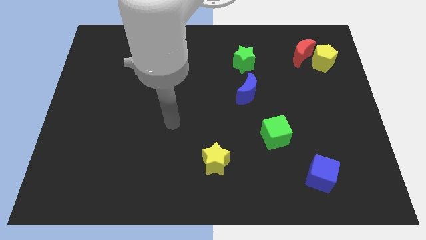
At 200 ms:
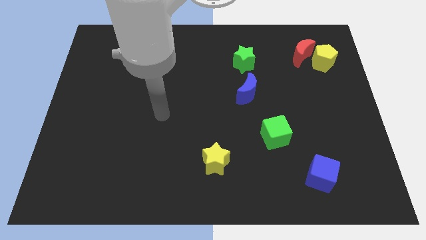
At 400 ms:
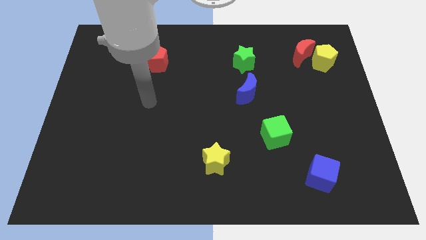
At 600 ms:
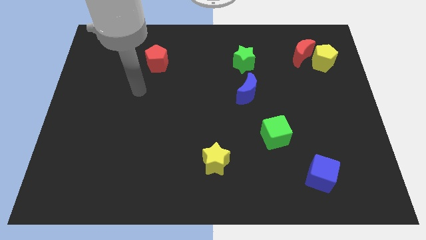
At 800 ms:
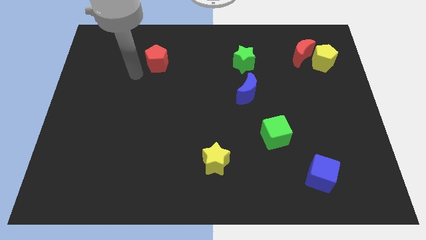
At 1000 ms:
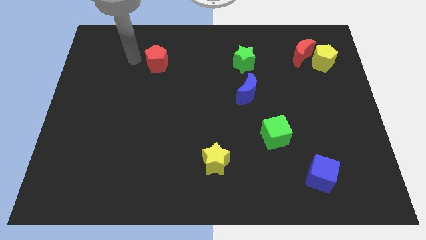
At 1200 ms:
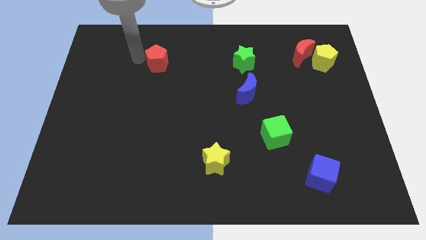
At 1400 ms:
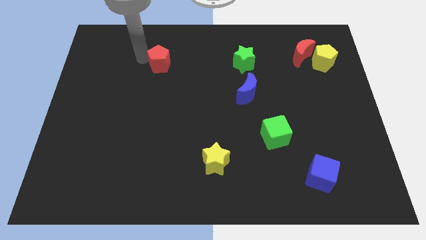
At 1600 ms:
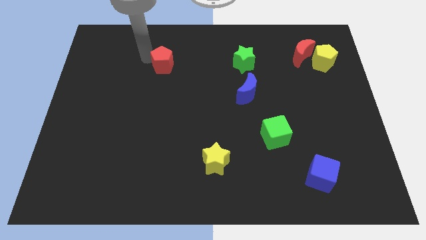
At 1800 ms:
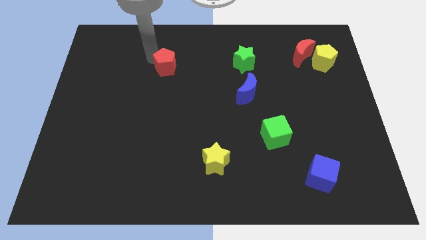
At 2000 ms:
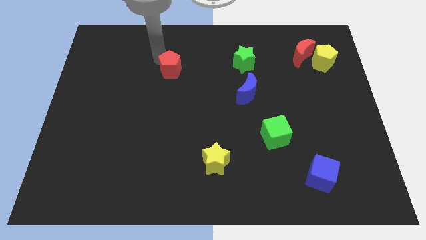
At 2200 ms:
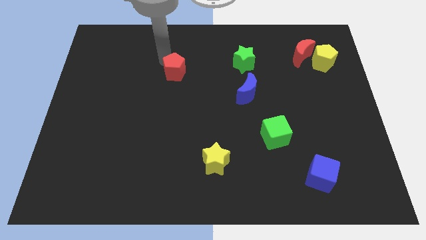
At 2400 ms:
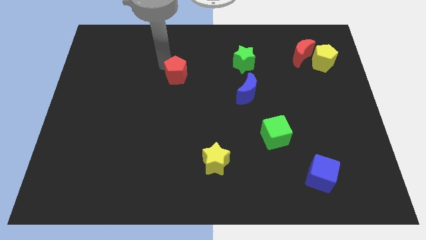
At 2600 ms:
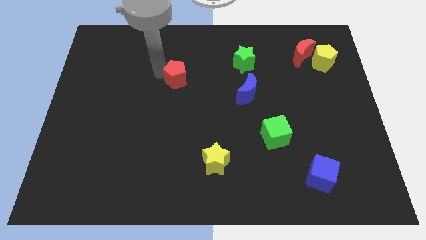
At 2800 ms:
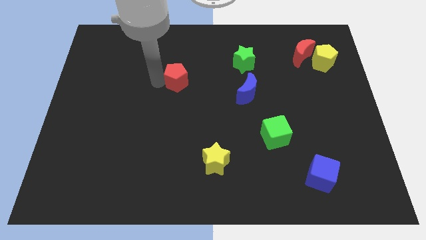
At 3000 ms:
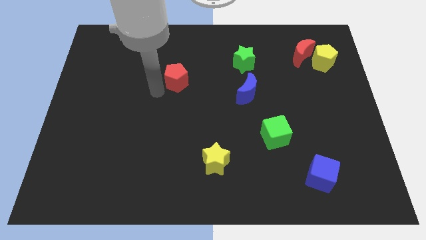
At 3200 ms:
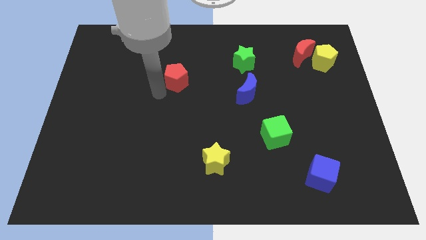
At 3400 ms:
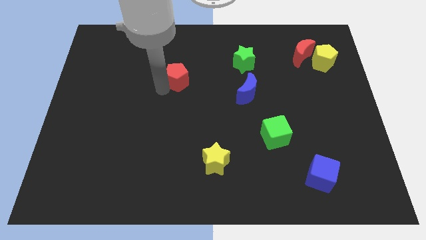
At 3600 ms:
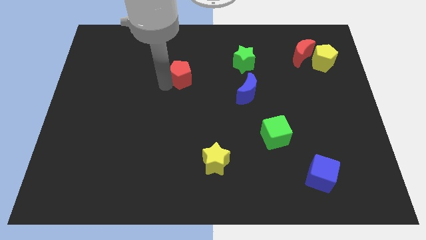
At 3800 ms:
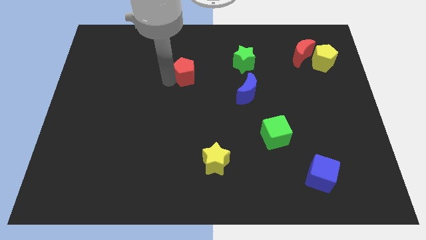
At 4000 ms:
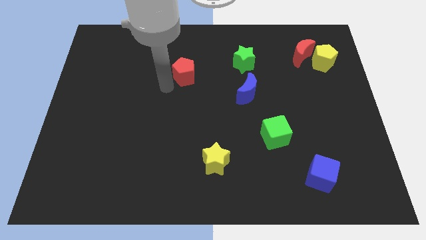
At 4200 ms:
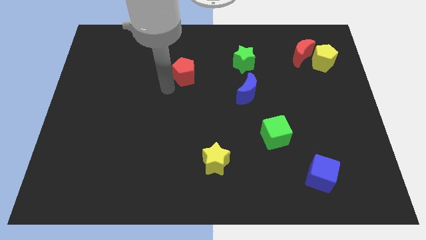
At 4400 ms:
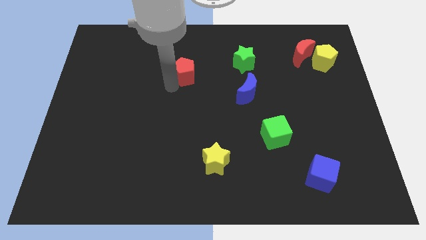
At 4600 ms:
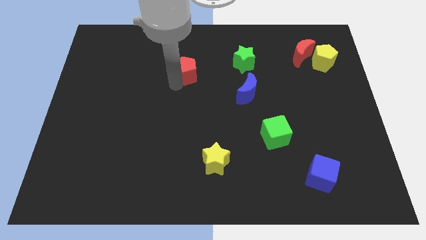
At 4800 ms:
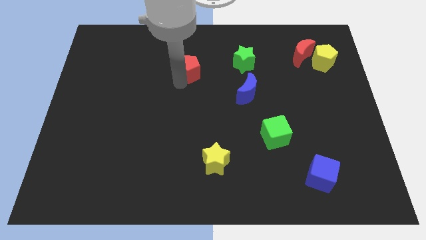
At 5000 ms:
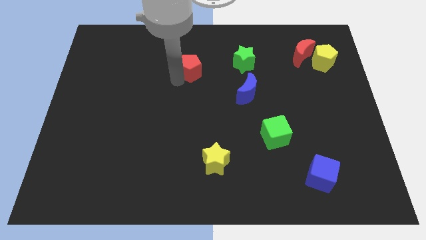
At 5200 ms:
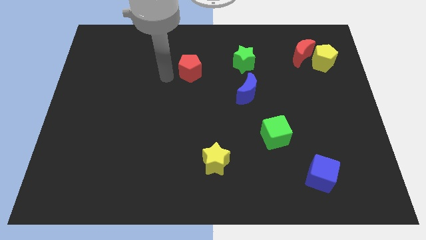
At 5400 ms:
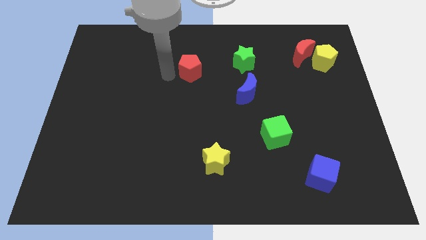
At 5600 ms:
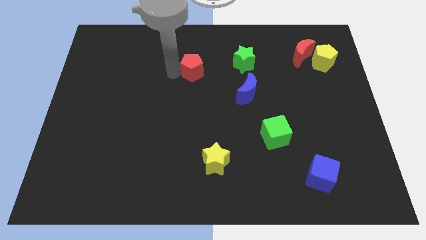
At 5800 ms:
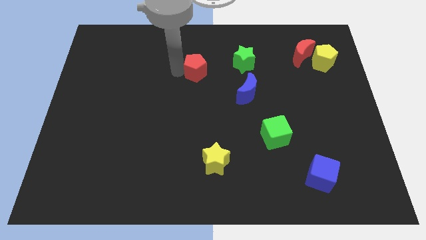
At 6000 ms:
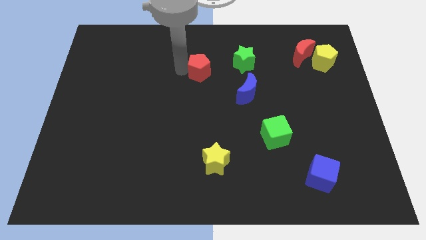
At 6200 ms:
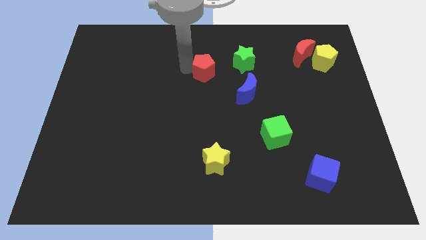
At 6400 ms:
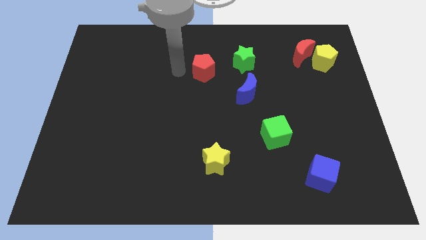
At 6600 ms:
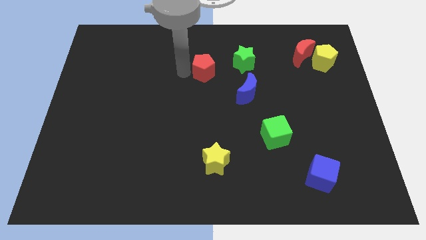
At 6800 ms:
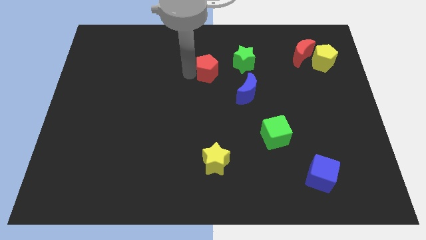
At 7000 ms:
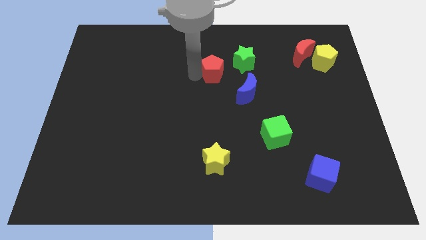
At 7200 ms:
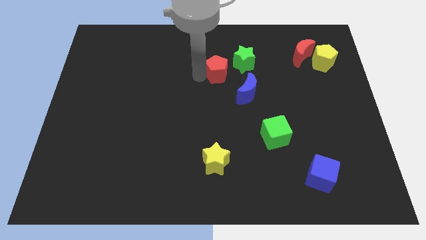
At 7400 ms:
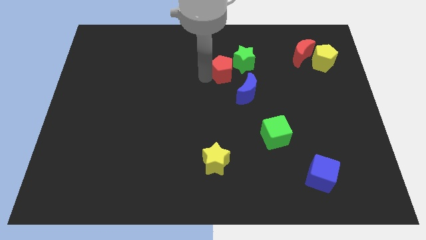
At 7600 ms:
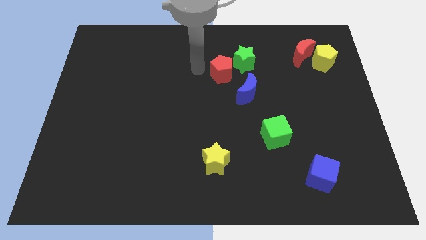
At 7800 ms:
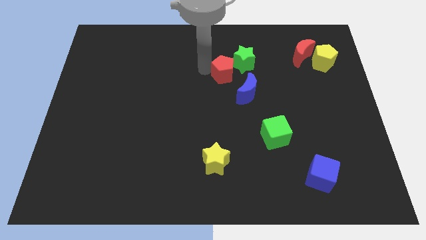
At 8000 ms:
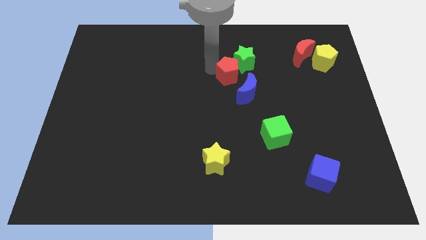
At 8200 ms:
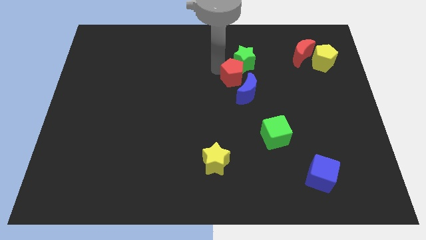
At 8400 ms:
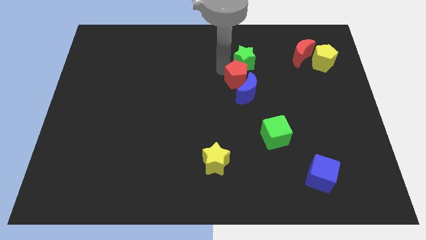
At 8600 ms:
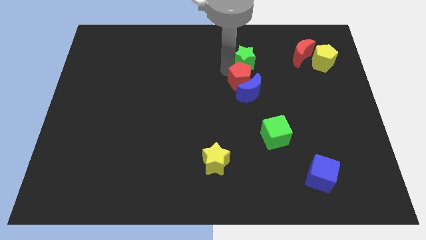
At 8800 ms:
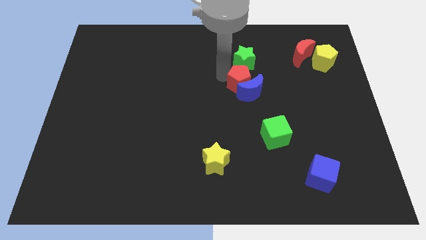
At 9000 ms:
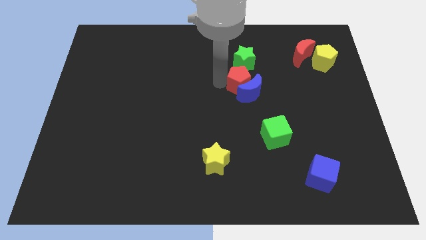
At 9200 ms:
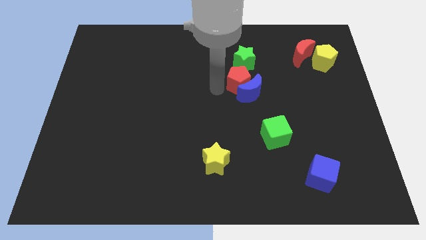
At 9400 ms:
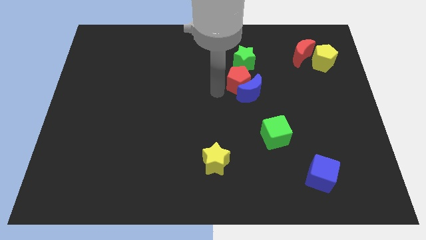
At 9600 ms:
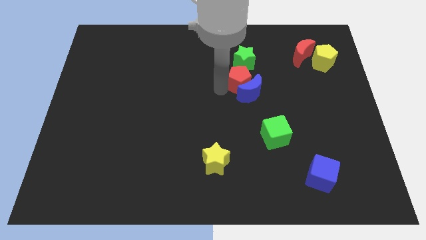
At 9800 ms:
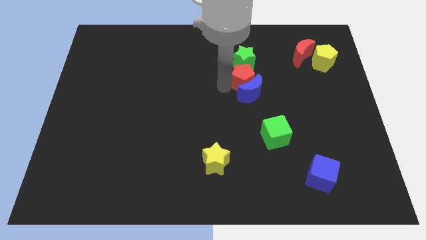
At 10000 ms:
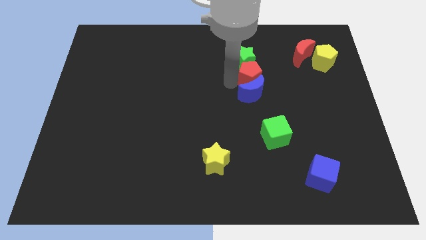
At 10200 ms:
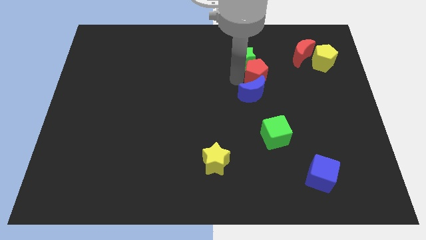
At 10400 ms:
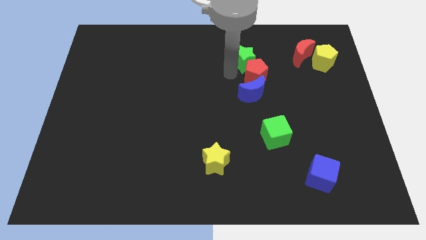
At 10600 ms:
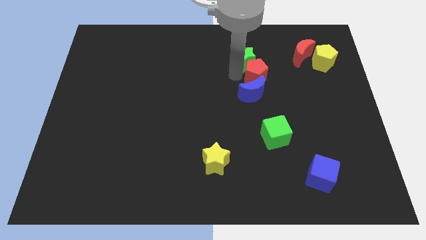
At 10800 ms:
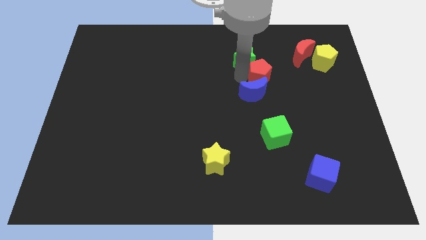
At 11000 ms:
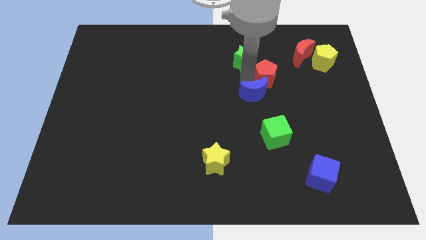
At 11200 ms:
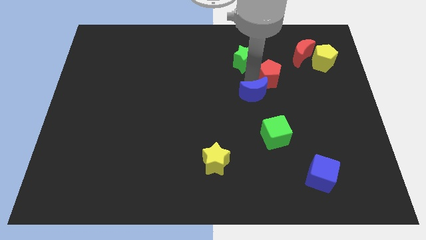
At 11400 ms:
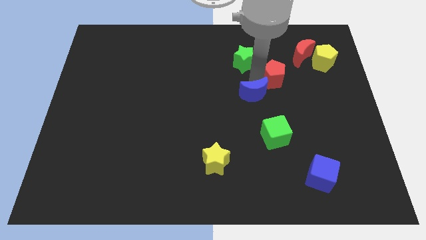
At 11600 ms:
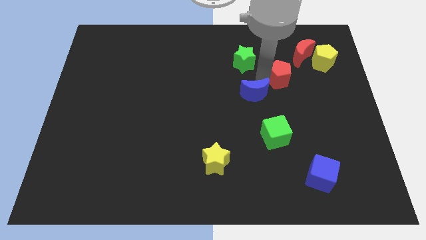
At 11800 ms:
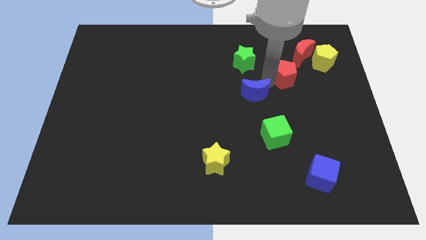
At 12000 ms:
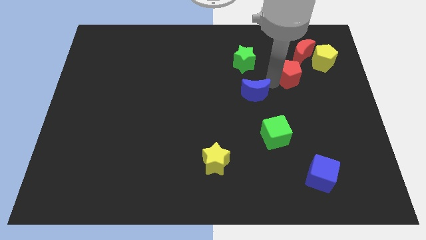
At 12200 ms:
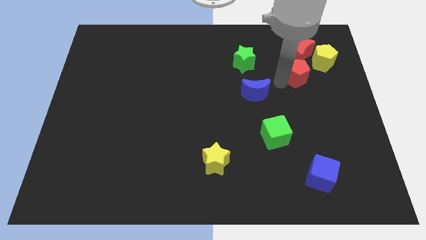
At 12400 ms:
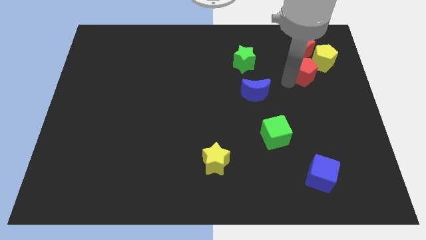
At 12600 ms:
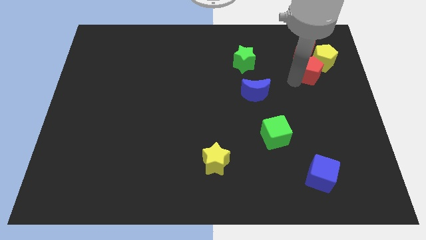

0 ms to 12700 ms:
slide the red pentagon close to the yellow pentagon
